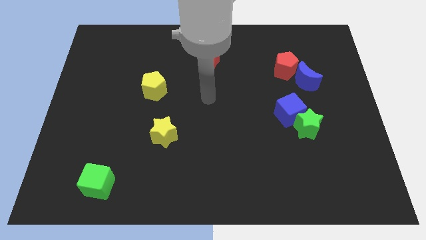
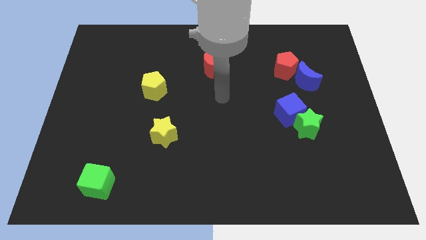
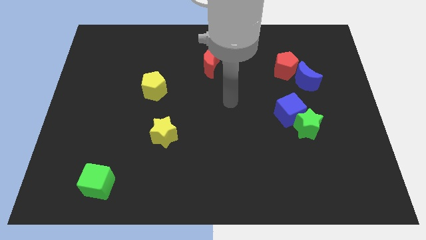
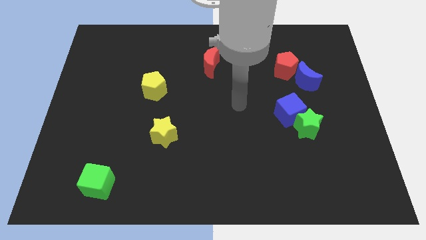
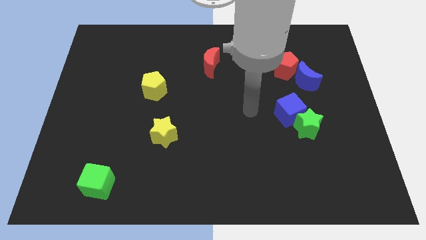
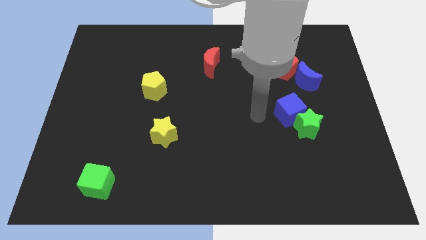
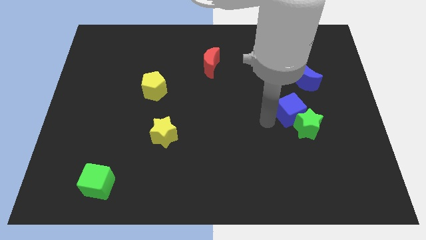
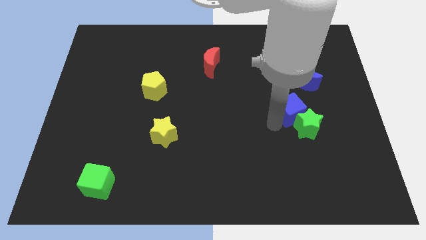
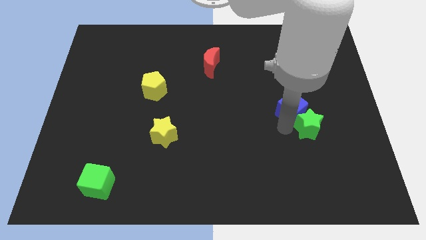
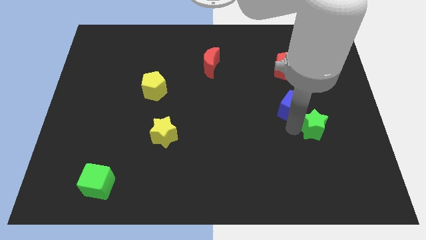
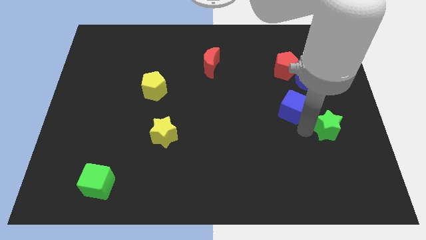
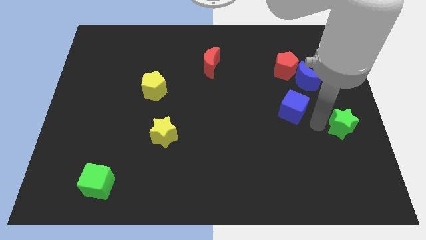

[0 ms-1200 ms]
move the blue cube away from the green star

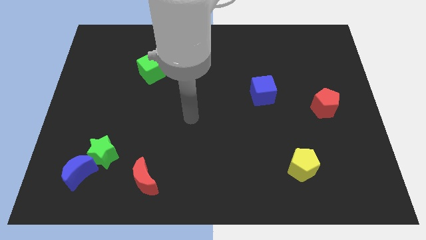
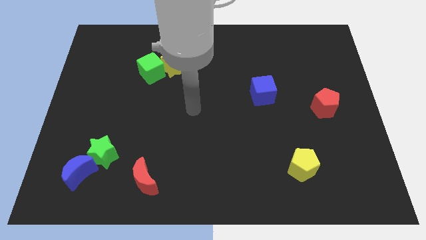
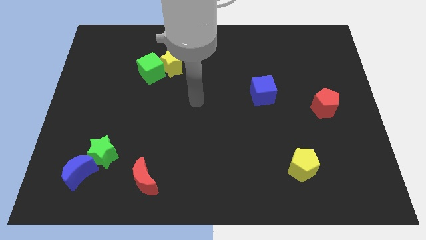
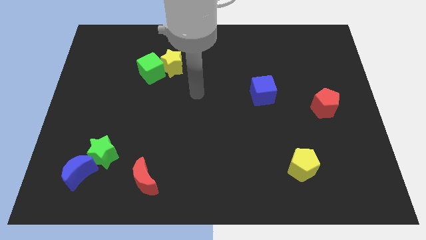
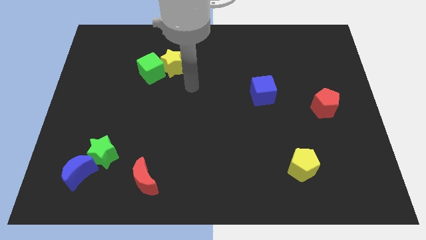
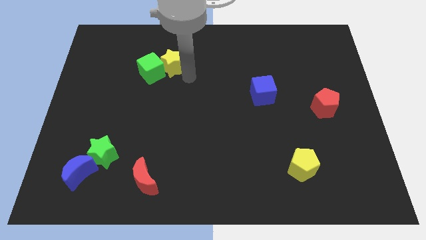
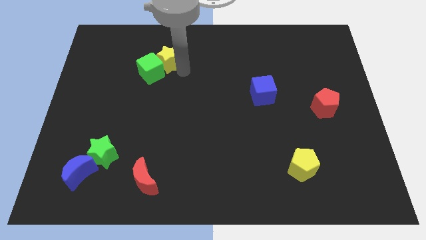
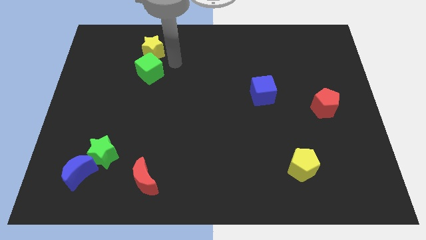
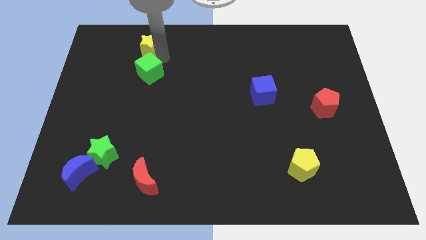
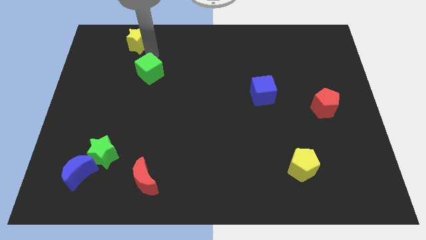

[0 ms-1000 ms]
separate the green cube from the yellow star

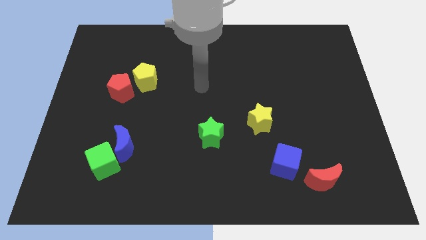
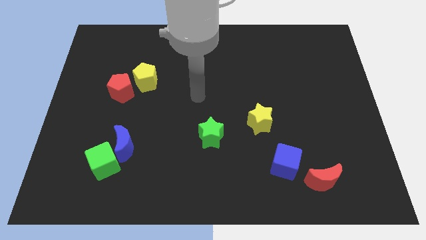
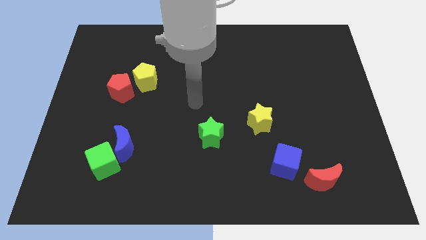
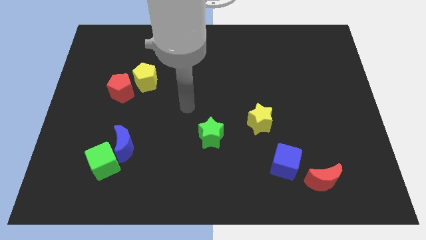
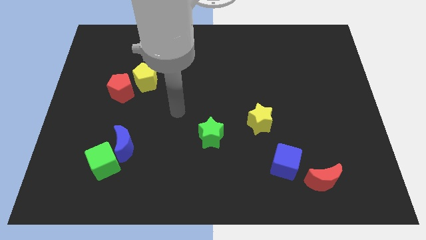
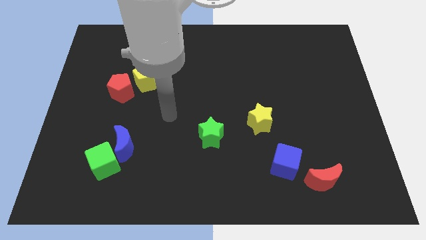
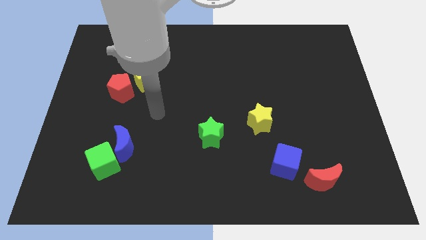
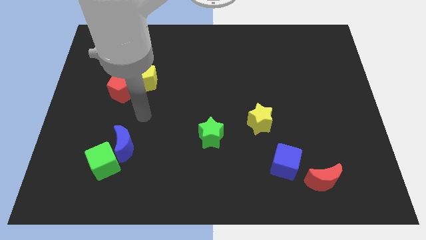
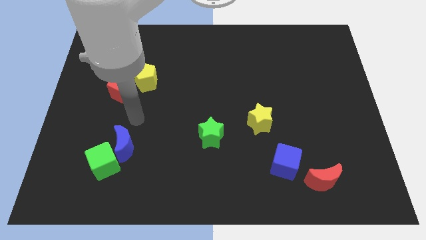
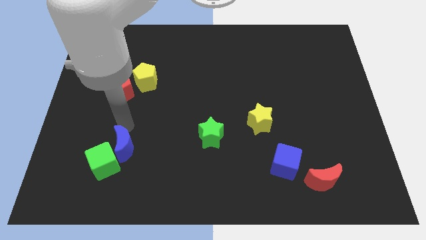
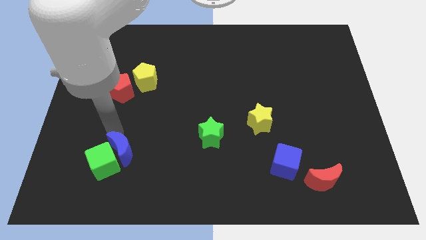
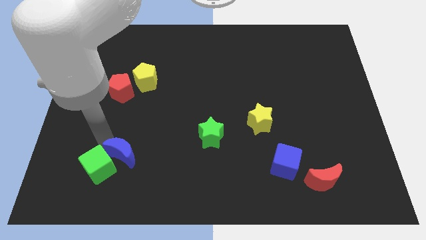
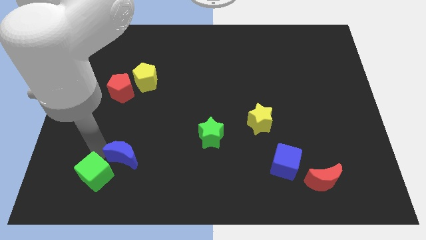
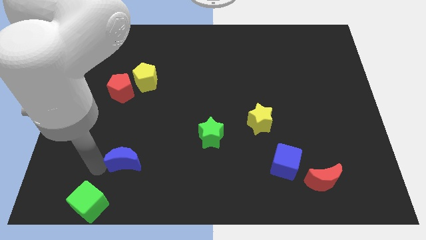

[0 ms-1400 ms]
pull the blue moon apart from the green cube

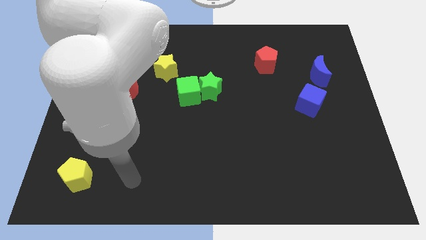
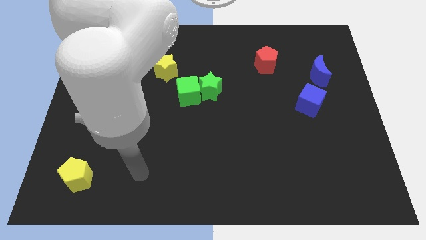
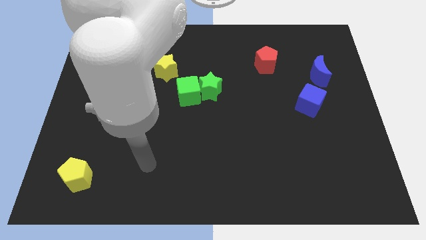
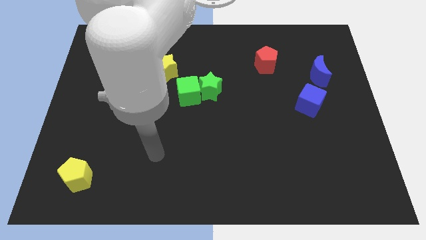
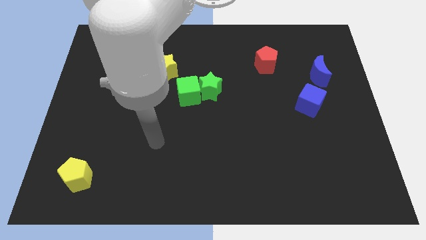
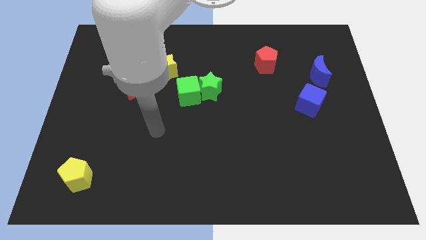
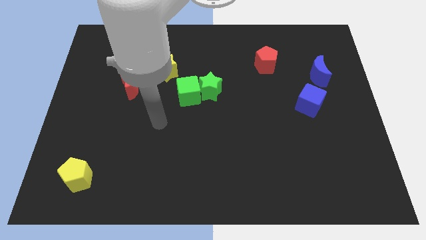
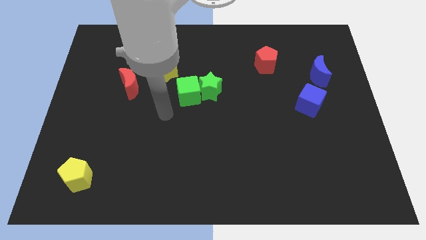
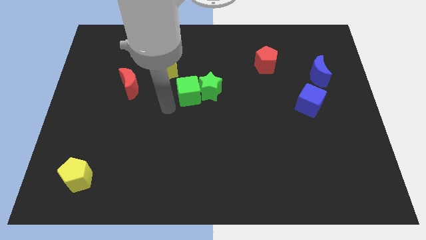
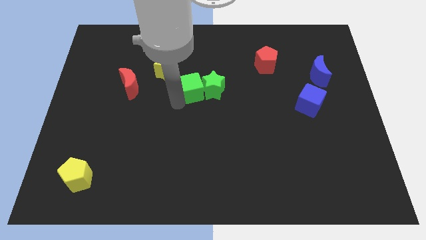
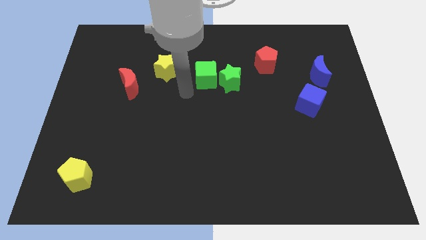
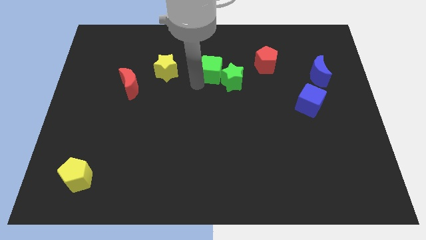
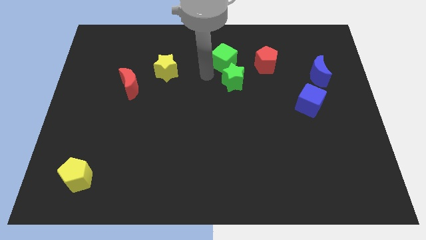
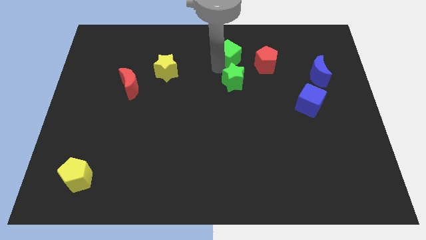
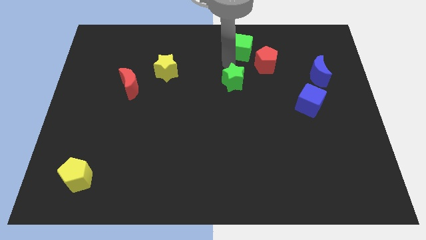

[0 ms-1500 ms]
separate the green star from the green cube

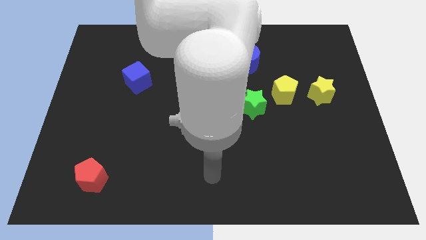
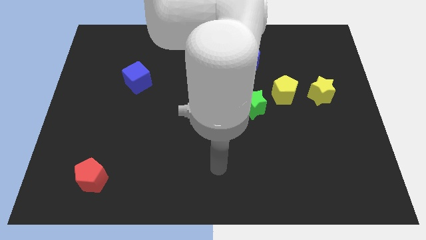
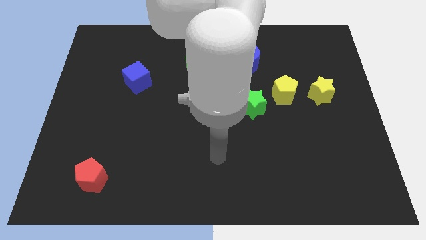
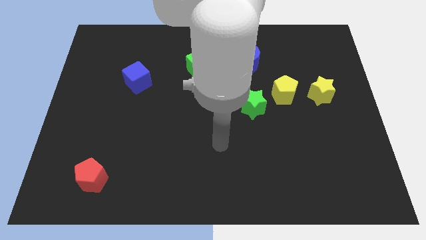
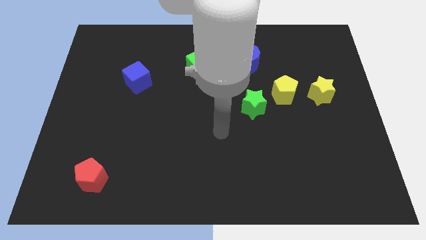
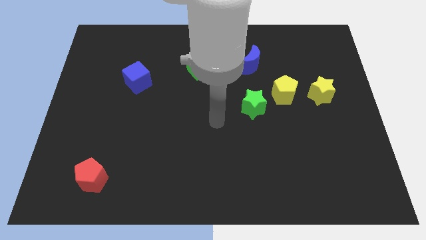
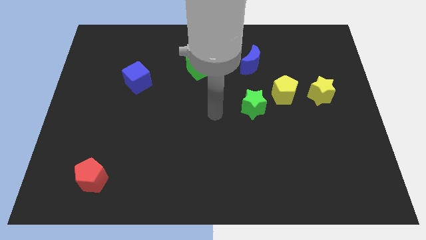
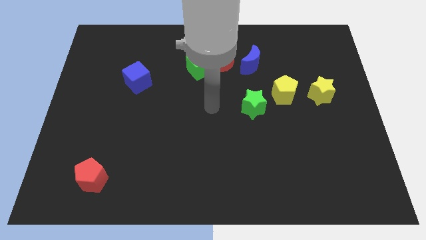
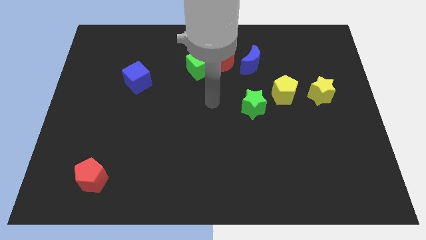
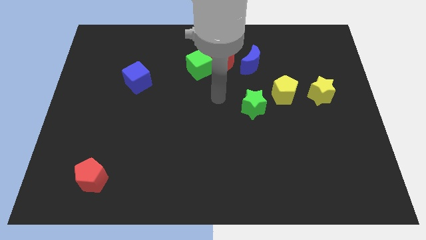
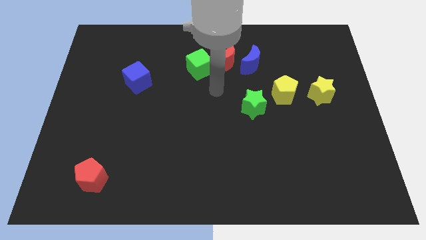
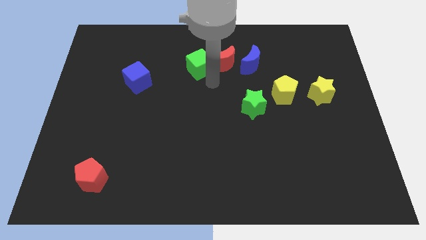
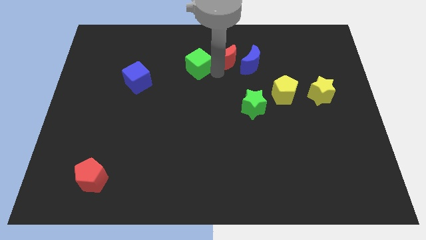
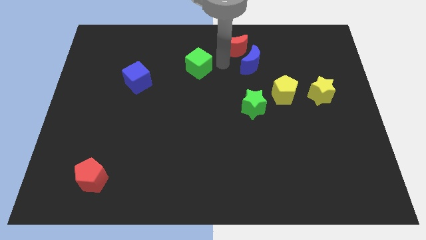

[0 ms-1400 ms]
separate the green cube from the red moon

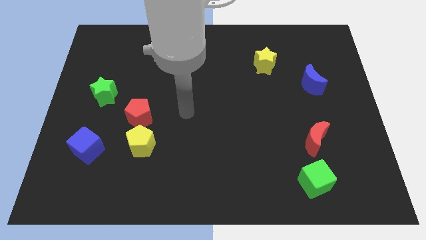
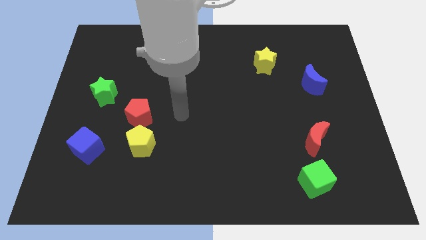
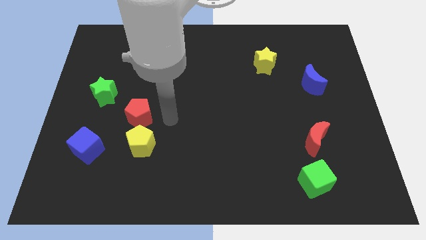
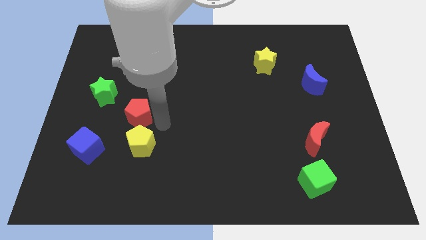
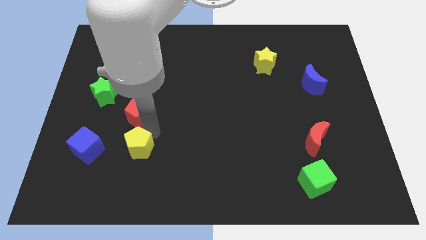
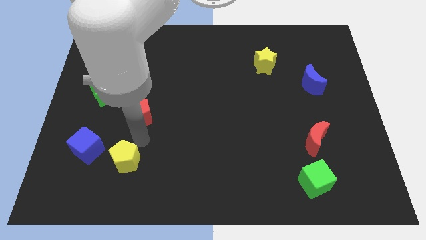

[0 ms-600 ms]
separate the red pentagon from the yellow pentagon

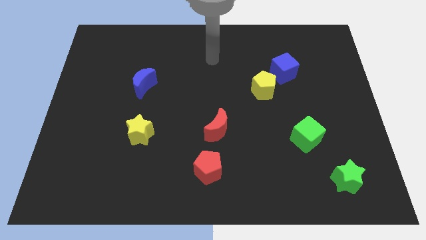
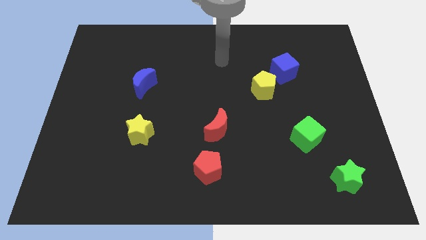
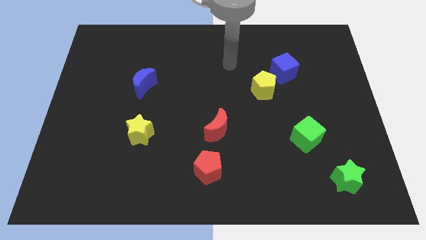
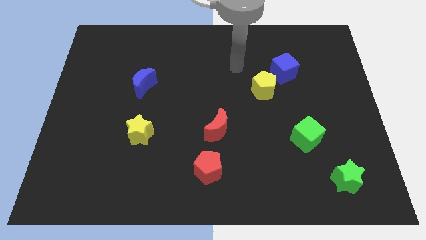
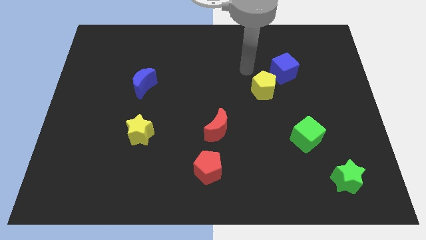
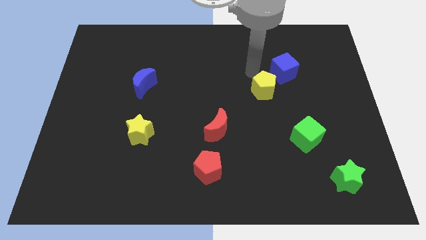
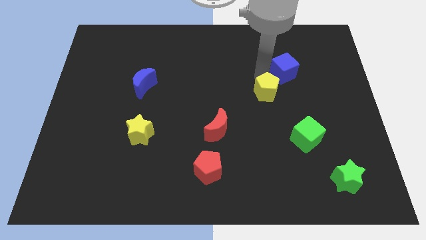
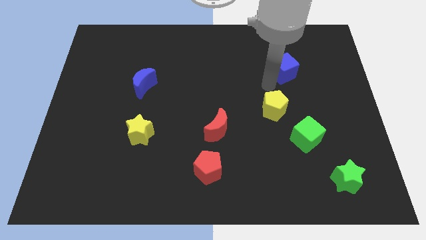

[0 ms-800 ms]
move the blue cube away from the yellow pentagon

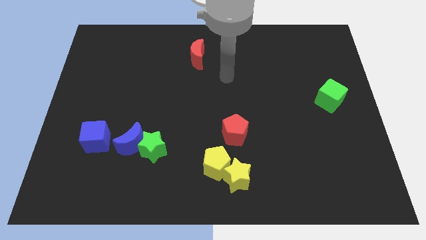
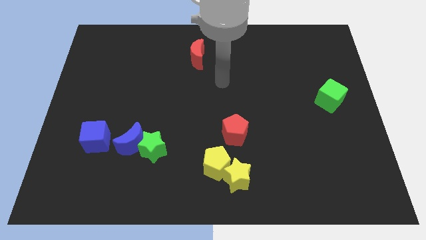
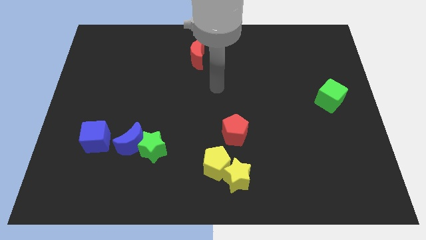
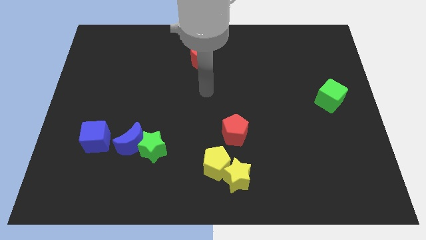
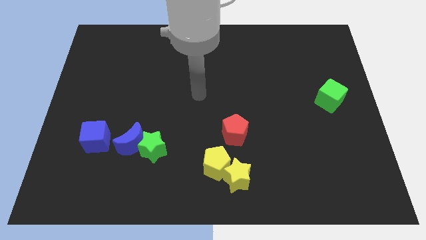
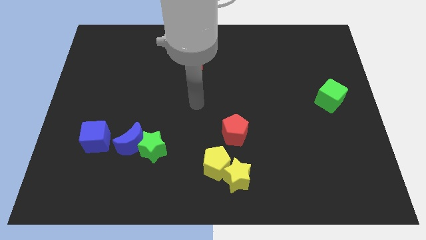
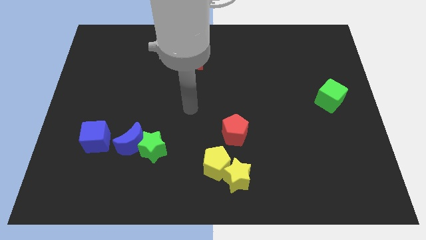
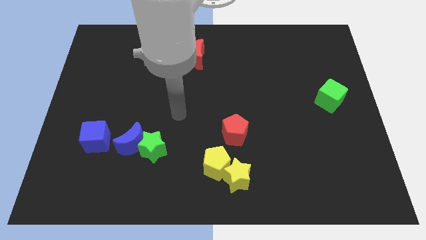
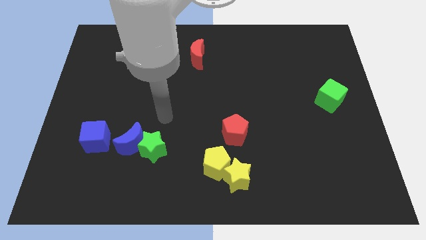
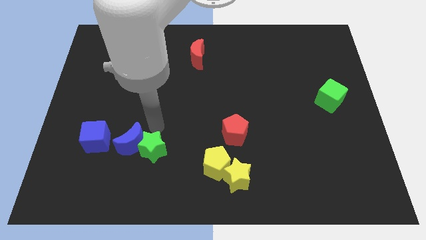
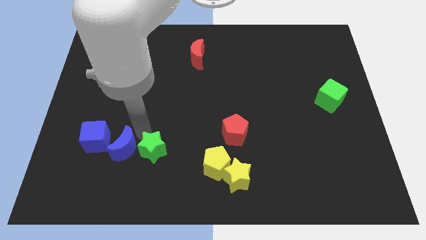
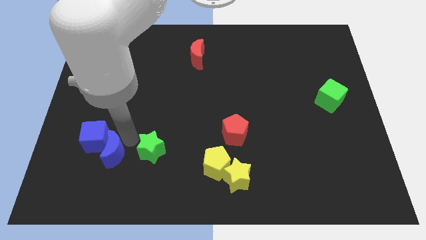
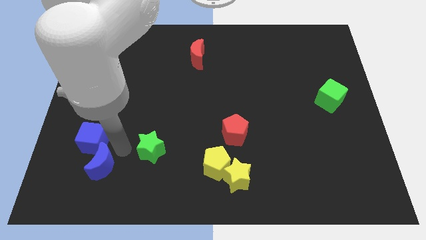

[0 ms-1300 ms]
pull the green star apart from the blue moon
